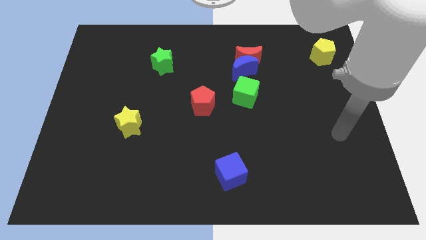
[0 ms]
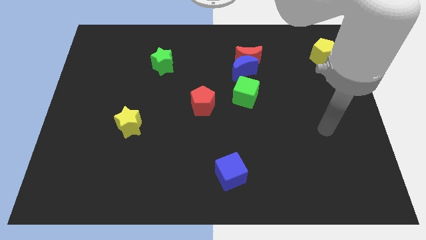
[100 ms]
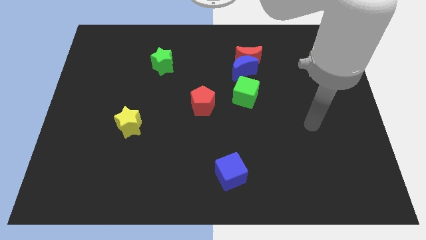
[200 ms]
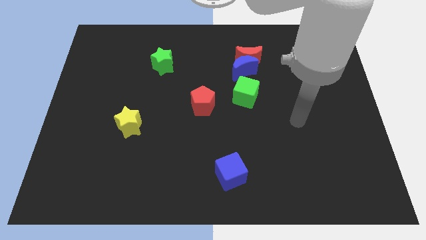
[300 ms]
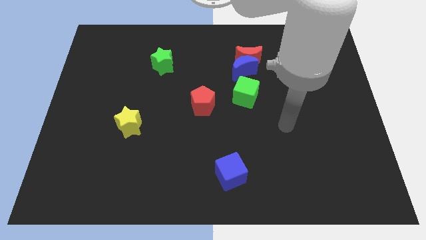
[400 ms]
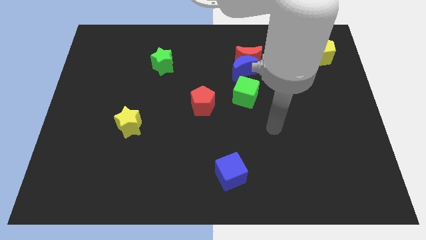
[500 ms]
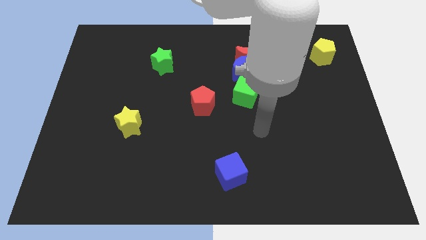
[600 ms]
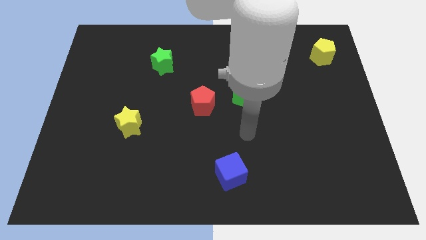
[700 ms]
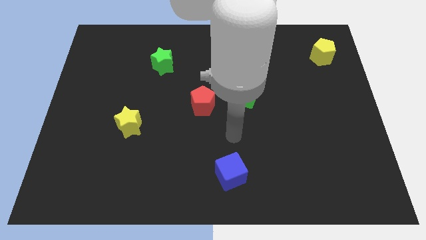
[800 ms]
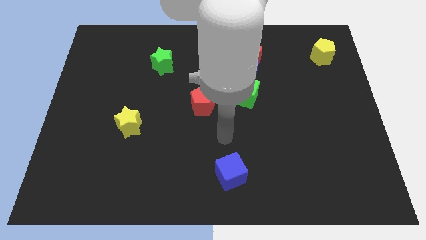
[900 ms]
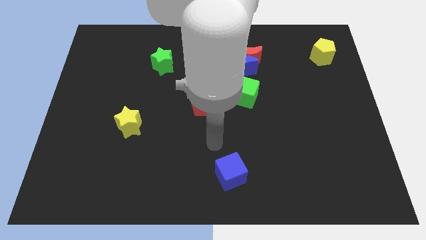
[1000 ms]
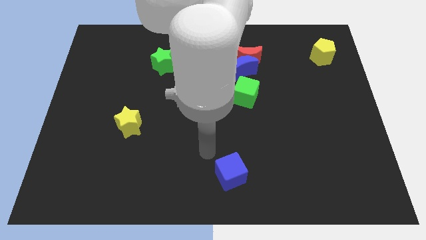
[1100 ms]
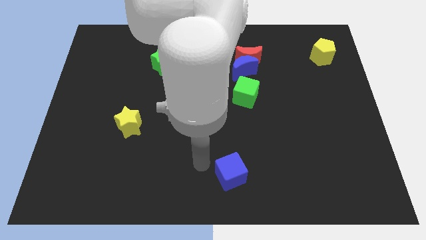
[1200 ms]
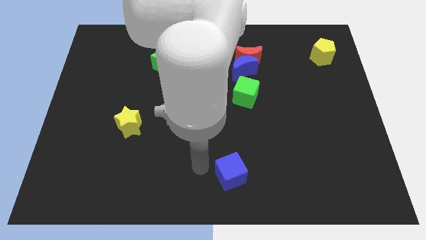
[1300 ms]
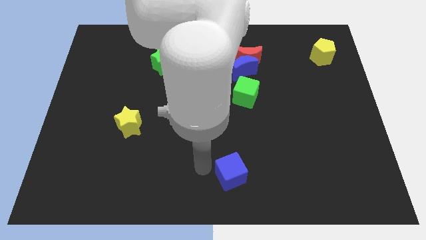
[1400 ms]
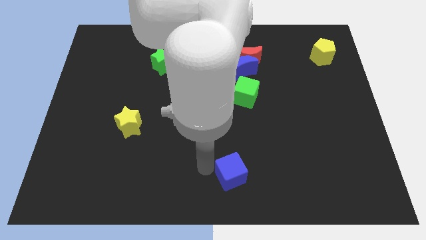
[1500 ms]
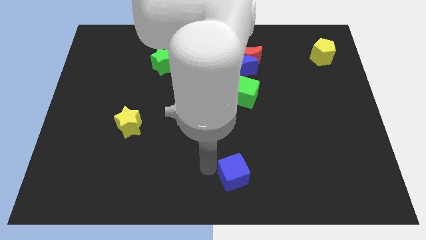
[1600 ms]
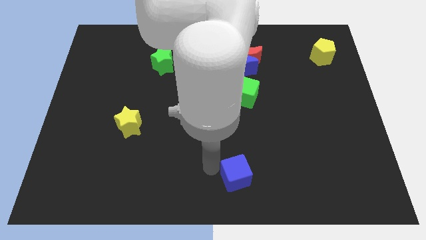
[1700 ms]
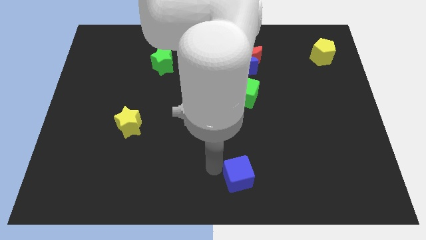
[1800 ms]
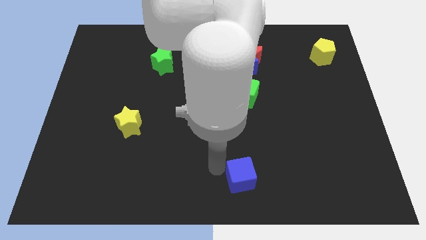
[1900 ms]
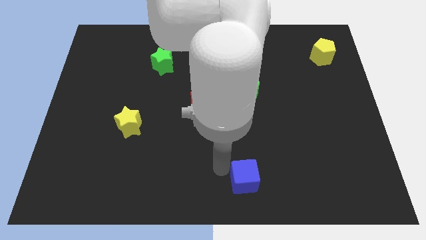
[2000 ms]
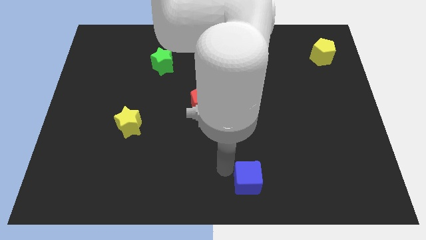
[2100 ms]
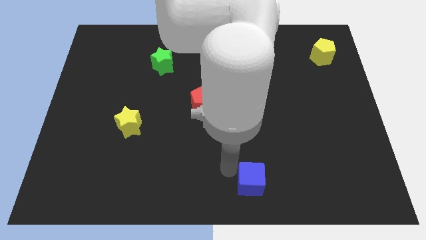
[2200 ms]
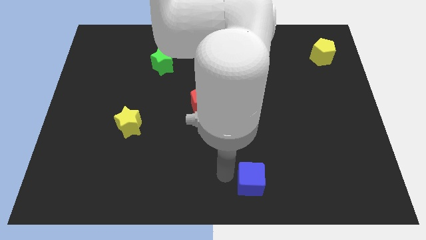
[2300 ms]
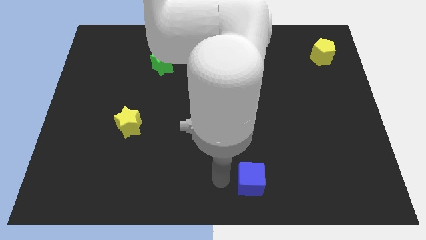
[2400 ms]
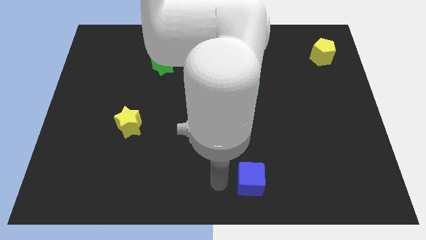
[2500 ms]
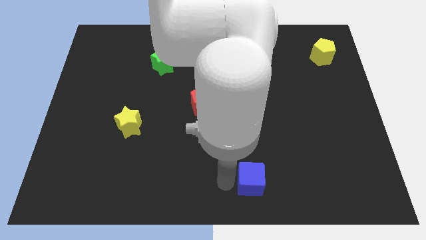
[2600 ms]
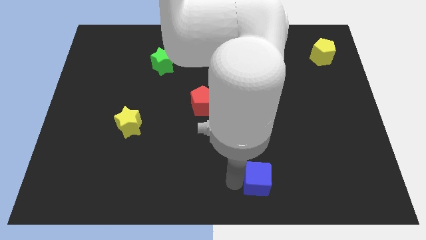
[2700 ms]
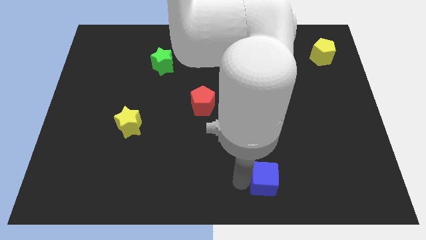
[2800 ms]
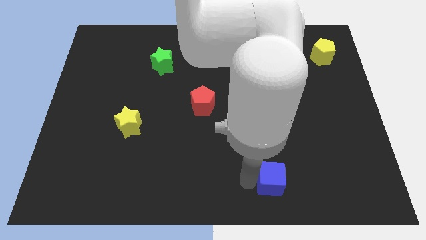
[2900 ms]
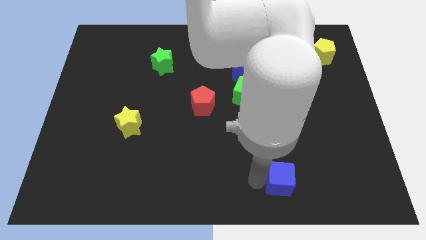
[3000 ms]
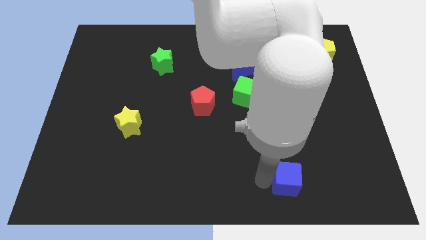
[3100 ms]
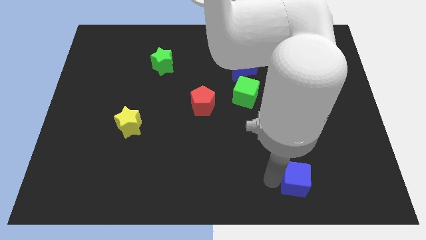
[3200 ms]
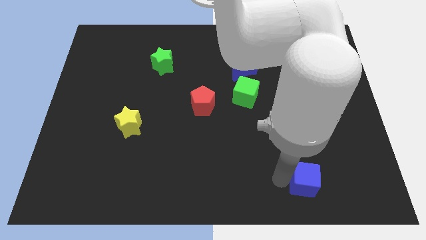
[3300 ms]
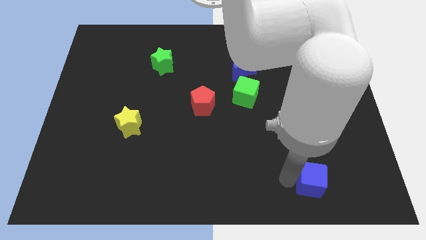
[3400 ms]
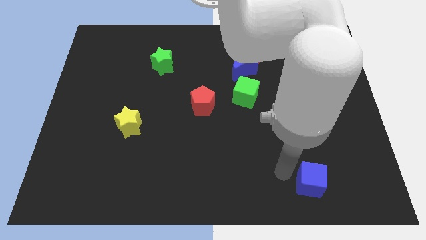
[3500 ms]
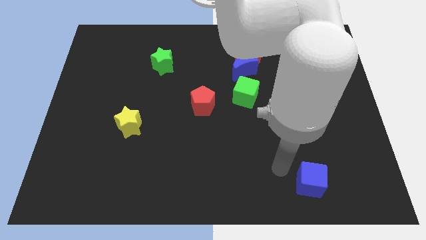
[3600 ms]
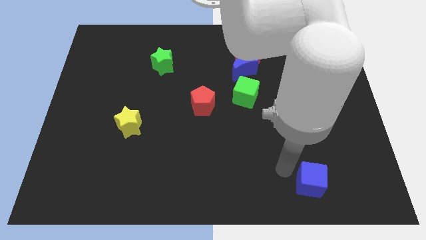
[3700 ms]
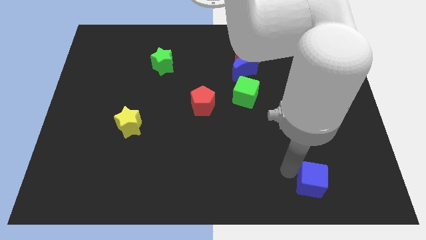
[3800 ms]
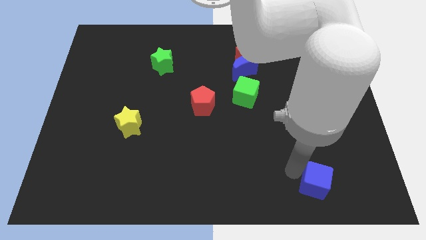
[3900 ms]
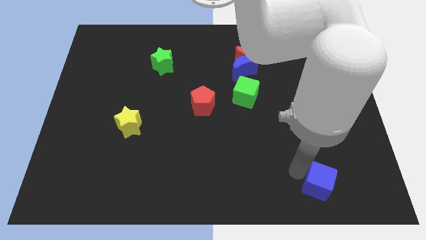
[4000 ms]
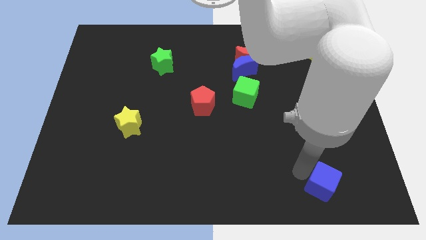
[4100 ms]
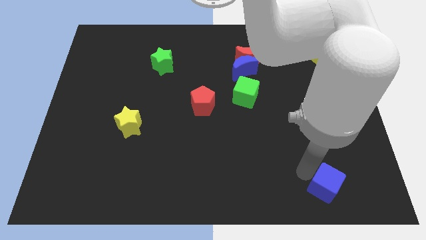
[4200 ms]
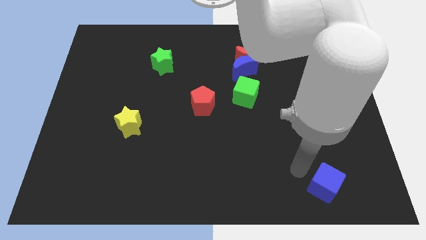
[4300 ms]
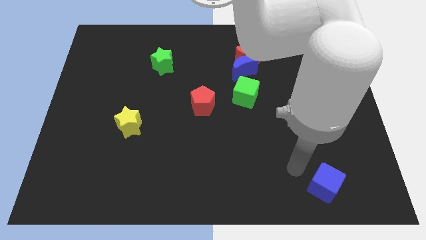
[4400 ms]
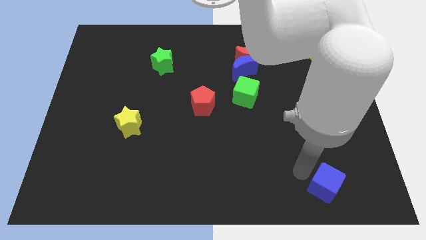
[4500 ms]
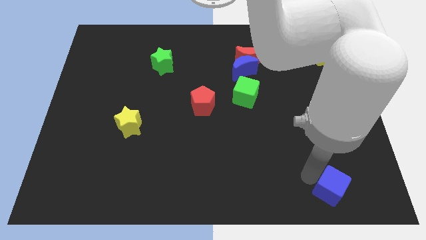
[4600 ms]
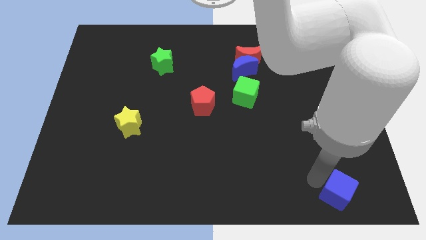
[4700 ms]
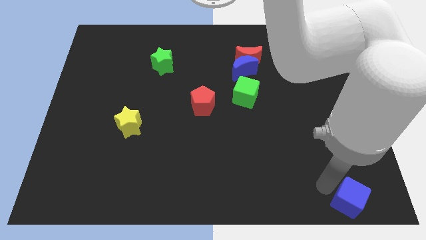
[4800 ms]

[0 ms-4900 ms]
slide the blue cube to the bottom right corner
